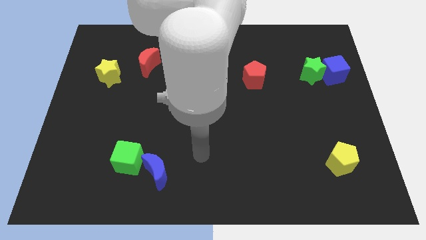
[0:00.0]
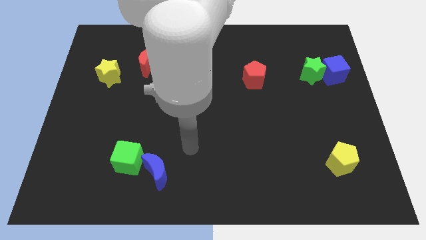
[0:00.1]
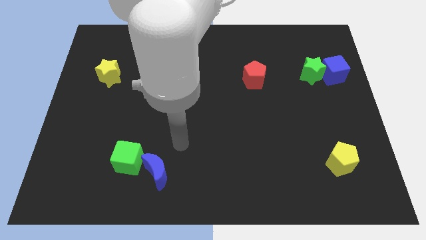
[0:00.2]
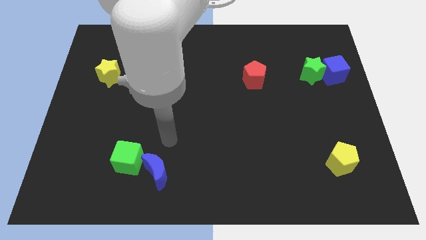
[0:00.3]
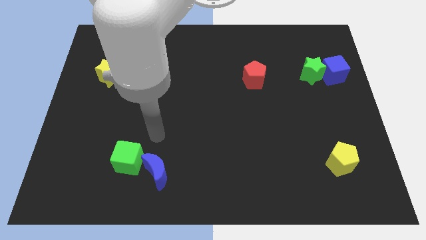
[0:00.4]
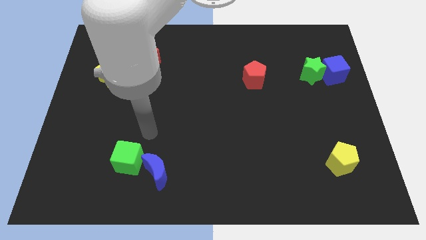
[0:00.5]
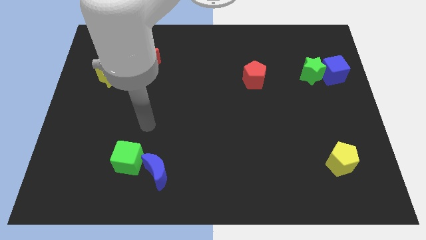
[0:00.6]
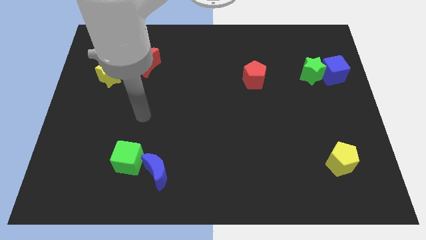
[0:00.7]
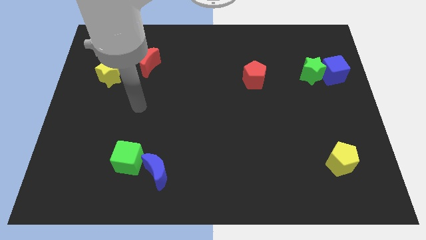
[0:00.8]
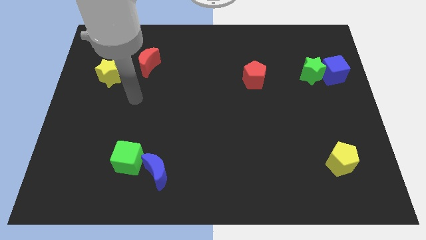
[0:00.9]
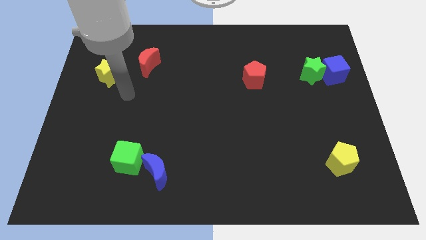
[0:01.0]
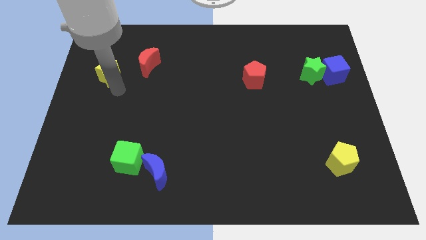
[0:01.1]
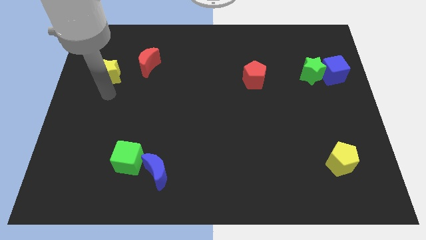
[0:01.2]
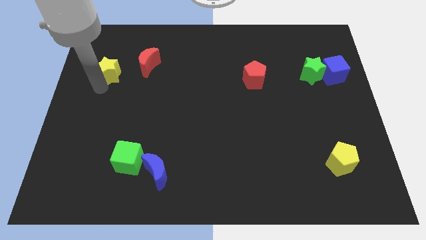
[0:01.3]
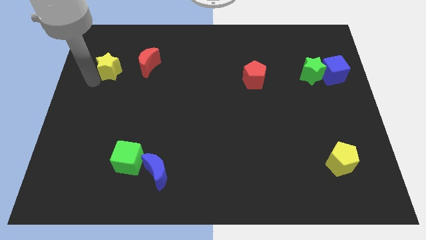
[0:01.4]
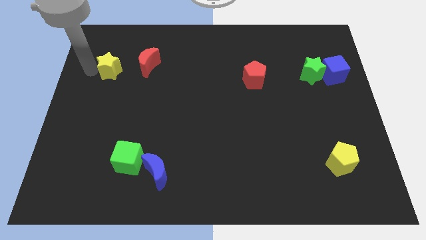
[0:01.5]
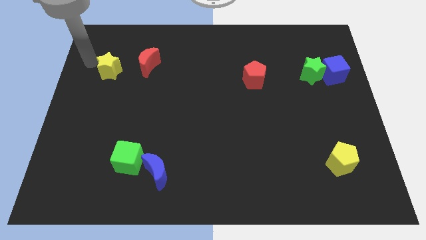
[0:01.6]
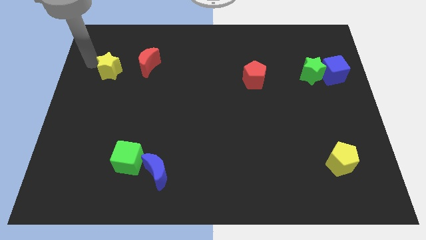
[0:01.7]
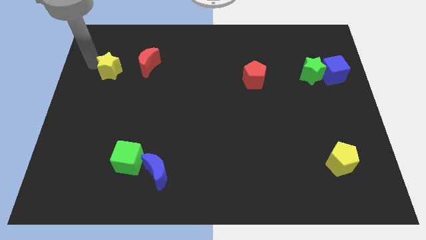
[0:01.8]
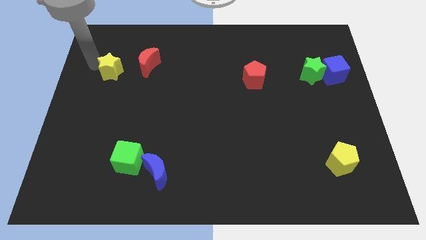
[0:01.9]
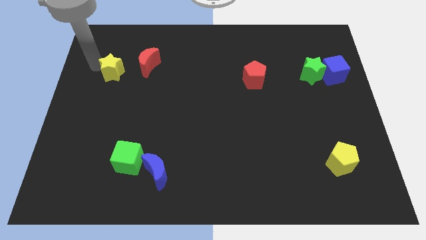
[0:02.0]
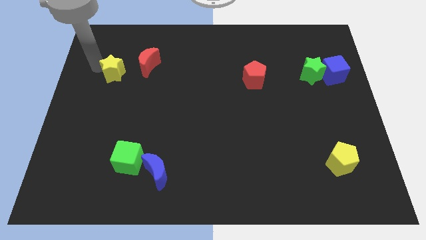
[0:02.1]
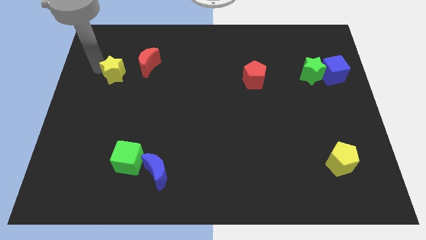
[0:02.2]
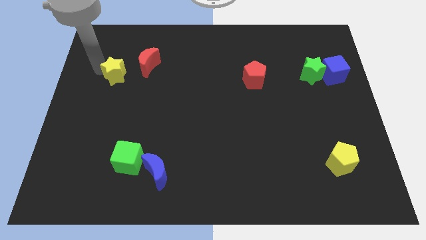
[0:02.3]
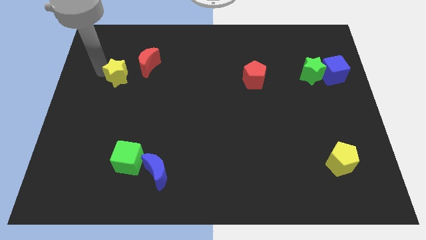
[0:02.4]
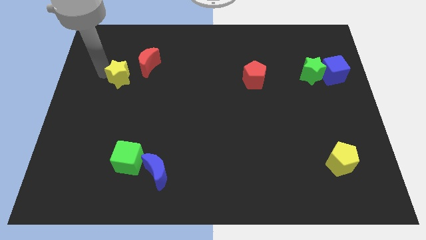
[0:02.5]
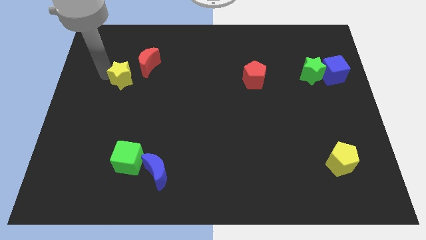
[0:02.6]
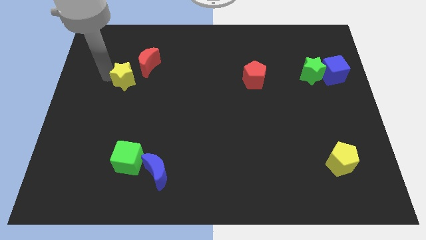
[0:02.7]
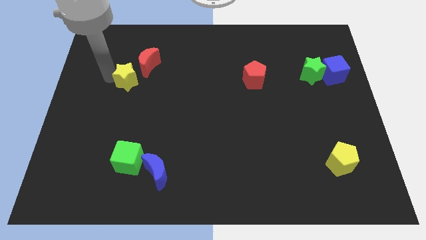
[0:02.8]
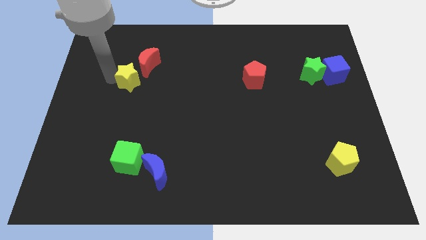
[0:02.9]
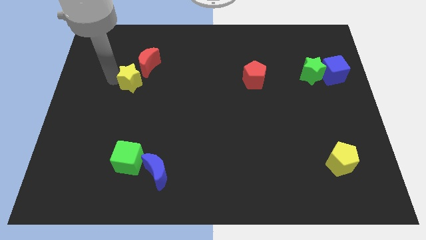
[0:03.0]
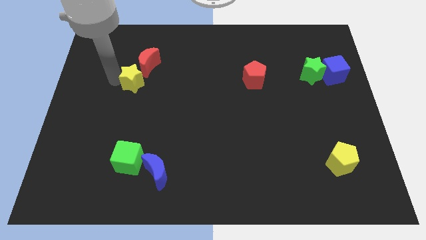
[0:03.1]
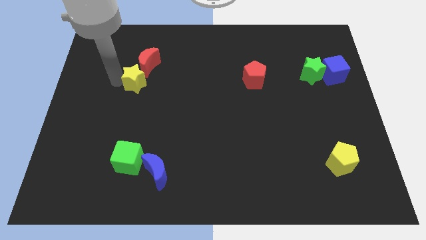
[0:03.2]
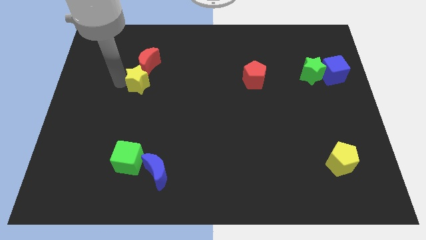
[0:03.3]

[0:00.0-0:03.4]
slightly slide the yellow star right

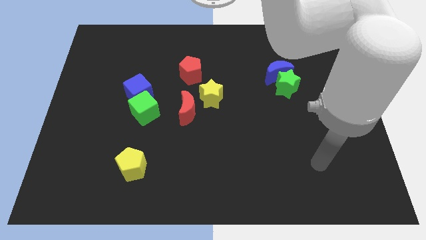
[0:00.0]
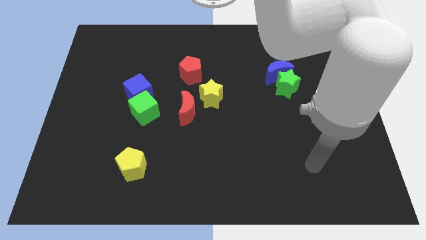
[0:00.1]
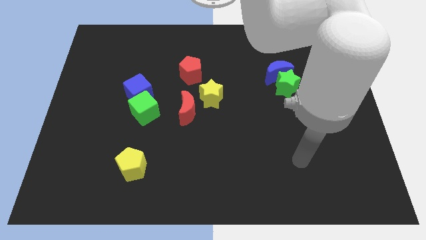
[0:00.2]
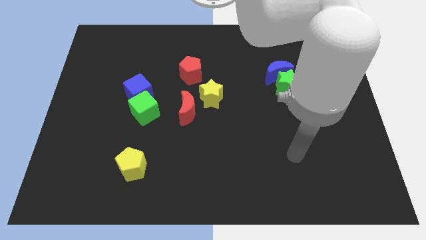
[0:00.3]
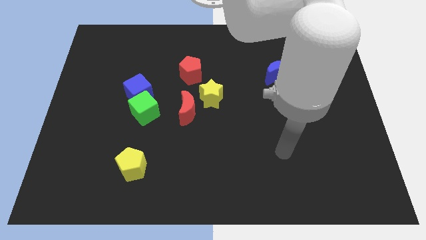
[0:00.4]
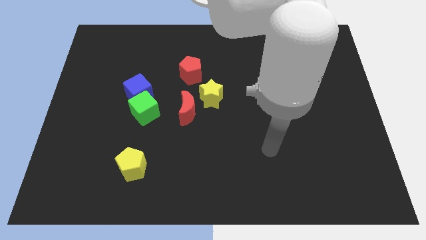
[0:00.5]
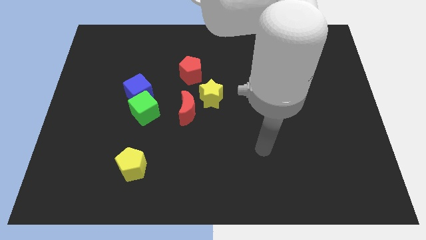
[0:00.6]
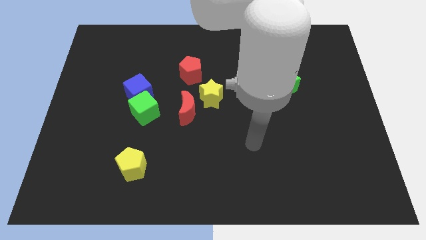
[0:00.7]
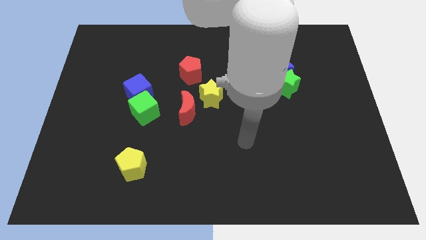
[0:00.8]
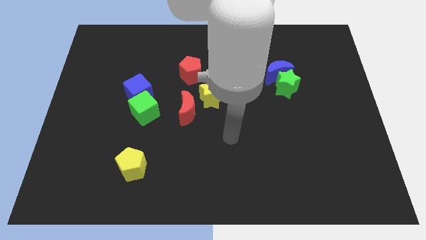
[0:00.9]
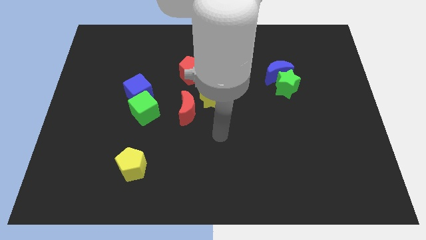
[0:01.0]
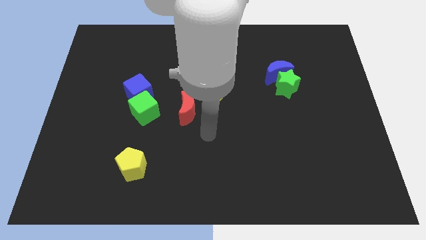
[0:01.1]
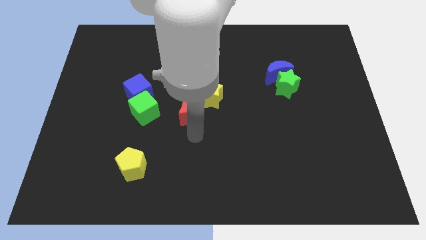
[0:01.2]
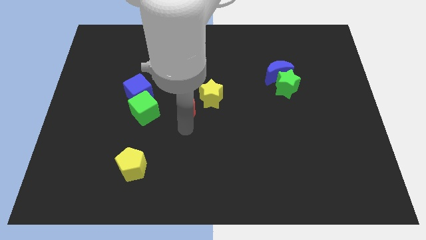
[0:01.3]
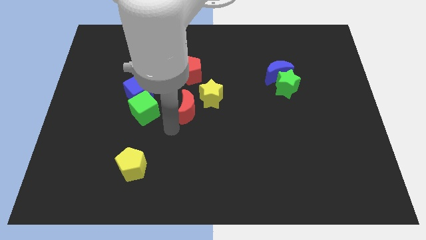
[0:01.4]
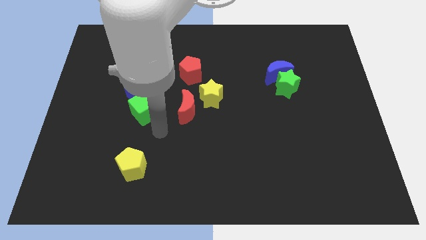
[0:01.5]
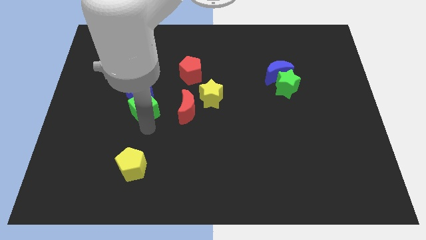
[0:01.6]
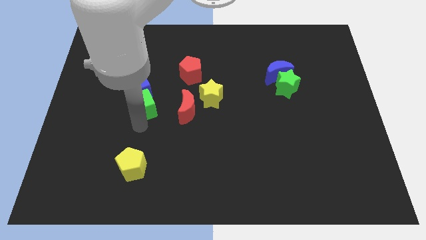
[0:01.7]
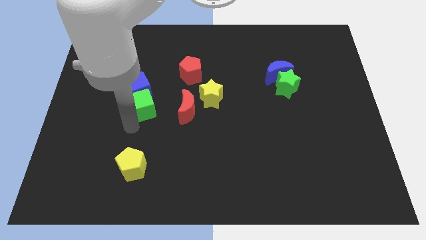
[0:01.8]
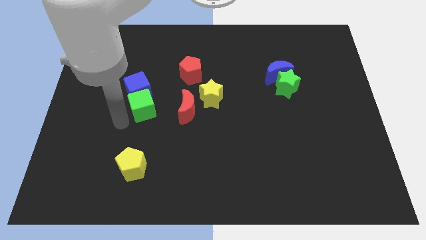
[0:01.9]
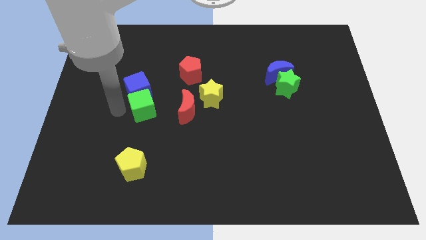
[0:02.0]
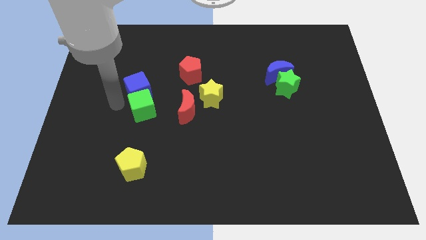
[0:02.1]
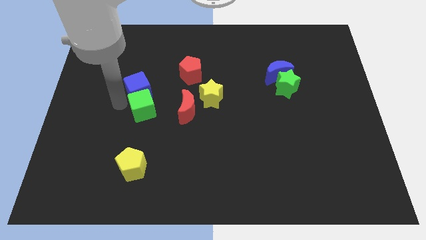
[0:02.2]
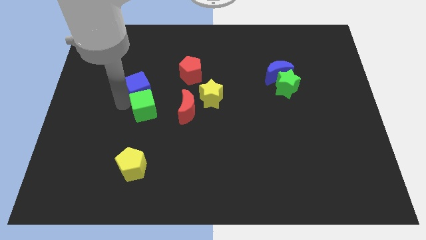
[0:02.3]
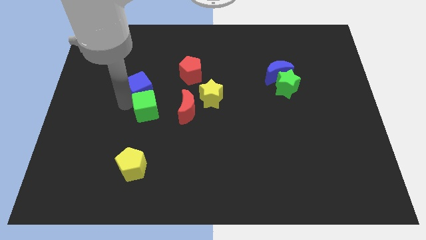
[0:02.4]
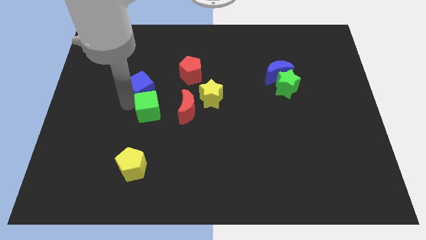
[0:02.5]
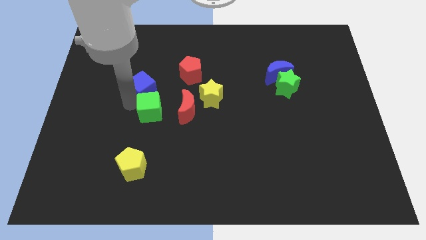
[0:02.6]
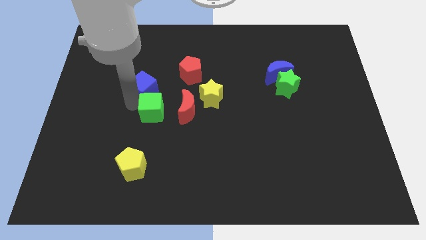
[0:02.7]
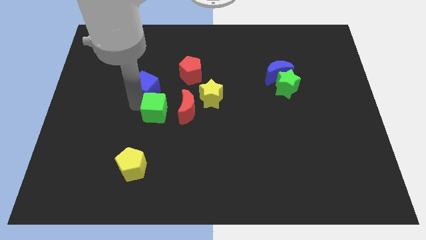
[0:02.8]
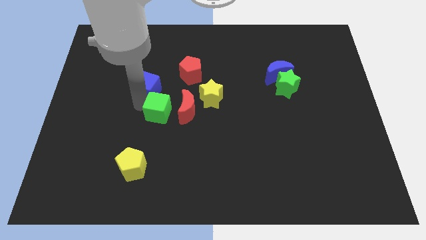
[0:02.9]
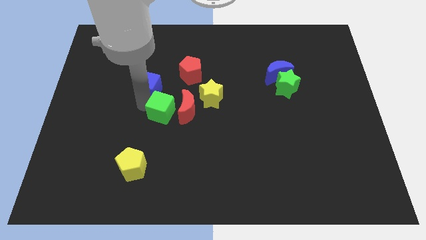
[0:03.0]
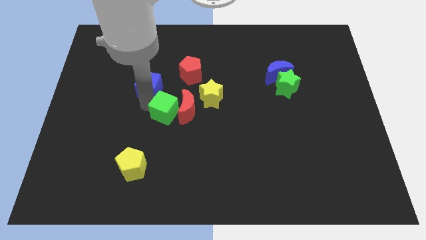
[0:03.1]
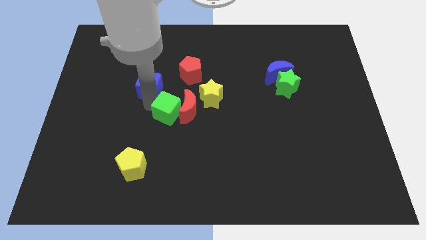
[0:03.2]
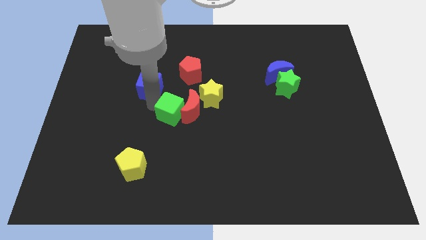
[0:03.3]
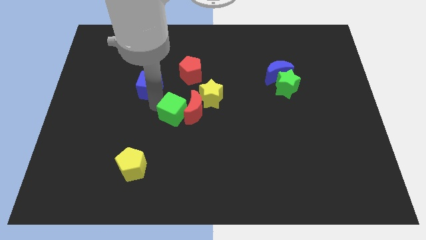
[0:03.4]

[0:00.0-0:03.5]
push the green cube to the right a little bit

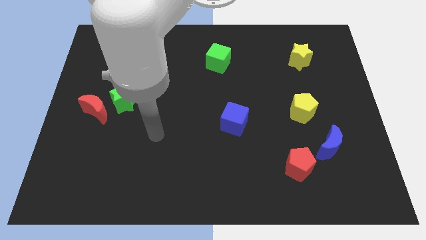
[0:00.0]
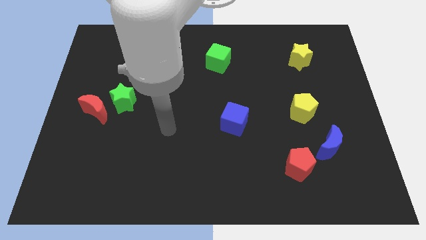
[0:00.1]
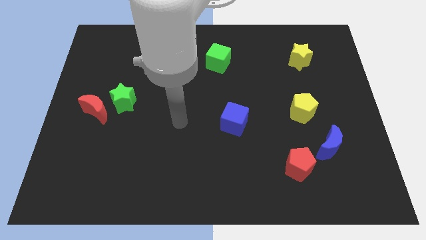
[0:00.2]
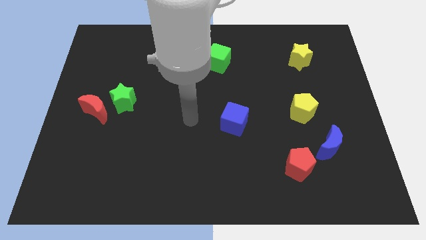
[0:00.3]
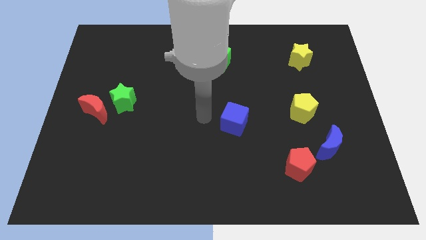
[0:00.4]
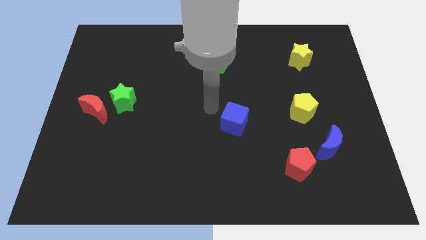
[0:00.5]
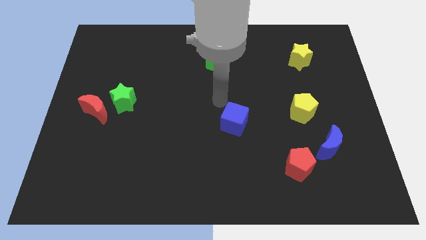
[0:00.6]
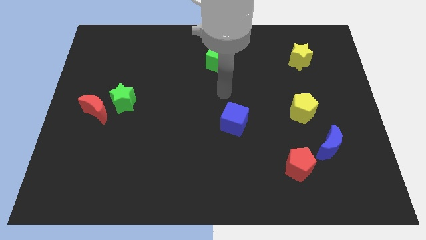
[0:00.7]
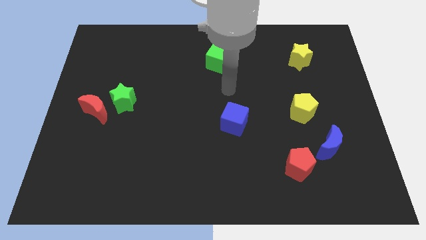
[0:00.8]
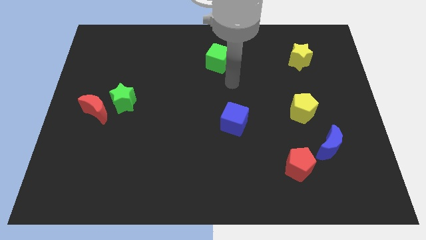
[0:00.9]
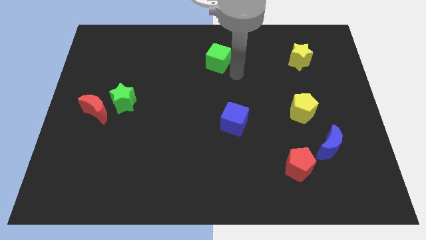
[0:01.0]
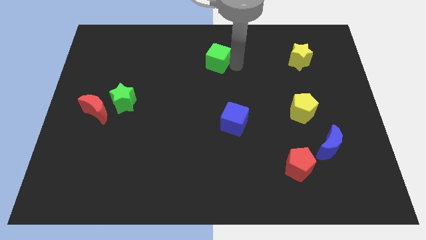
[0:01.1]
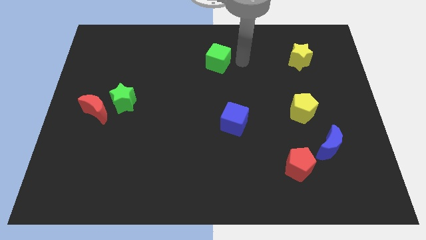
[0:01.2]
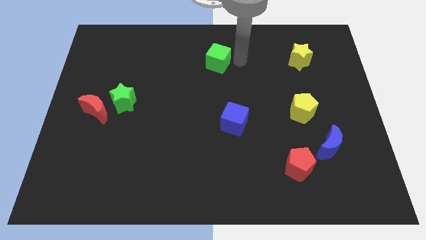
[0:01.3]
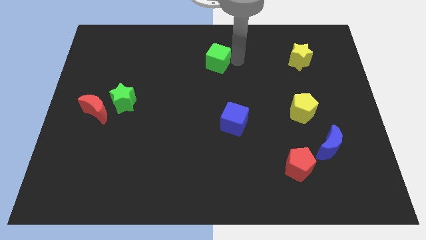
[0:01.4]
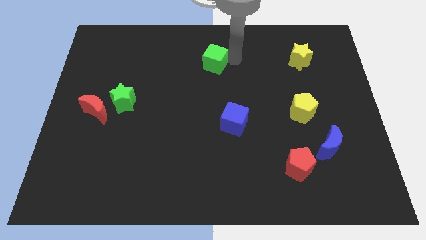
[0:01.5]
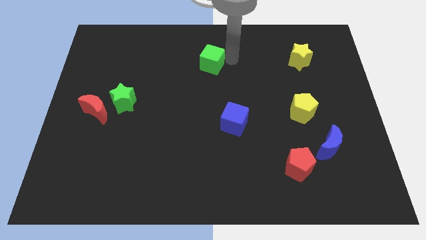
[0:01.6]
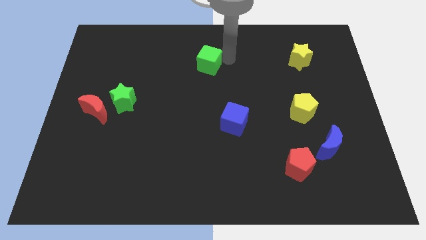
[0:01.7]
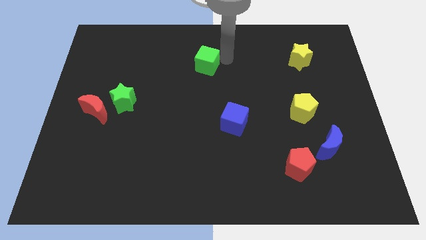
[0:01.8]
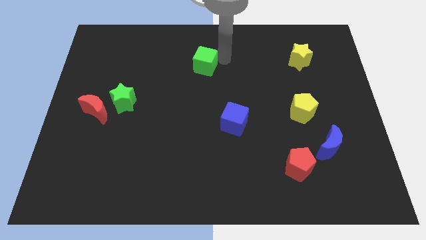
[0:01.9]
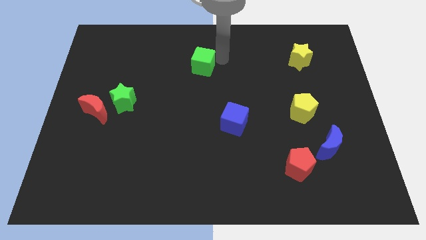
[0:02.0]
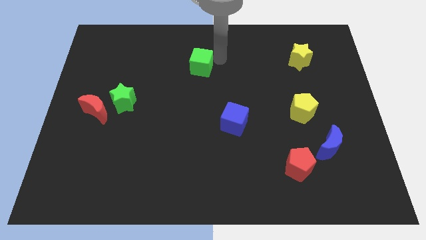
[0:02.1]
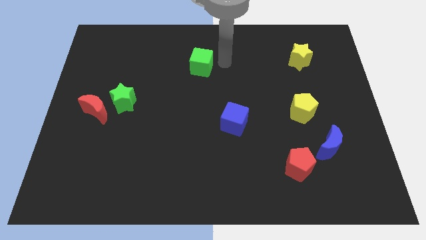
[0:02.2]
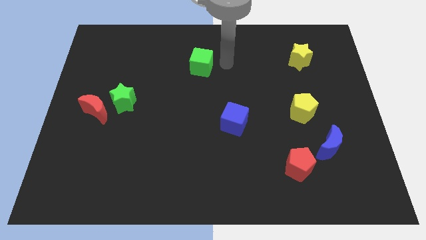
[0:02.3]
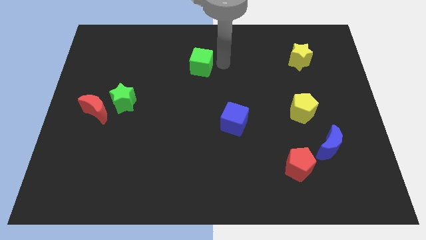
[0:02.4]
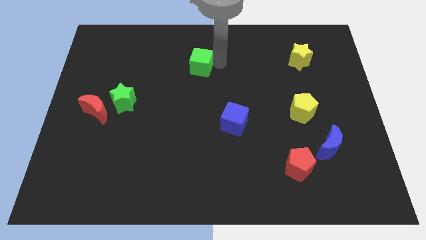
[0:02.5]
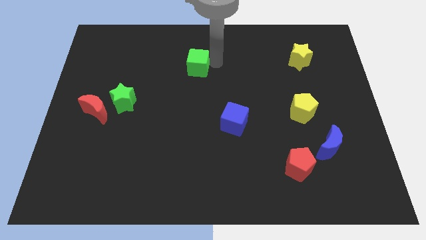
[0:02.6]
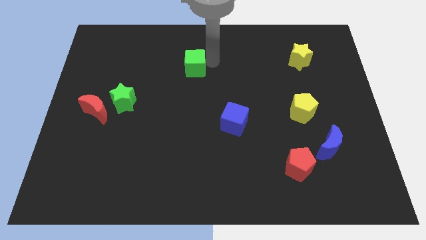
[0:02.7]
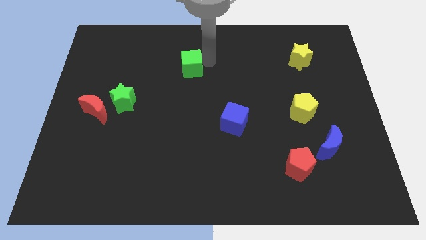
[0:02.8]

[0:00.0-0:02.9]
slightly slide the green cube left
